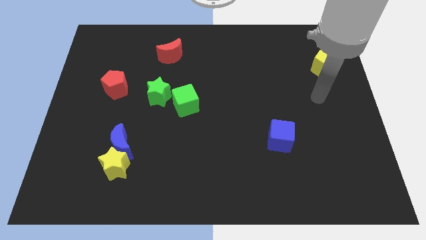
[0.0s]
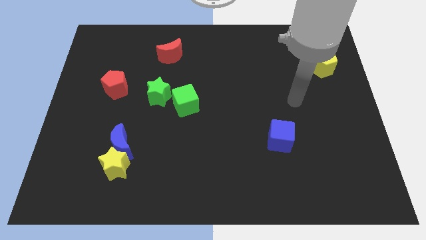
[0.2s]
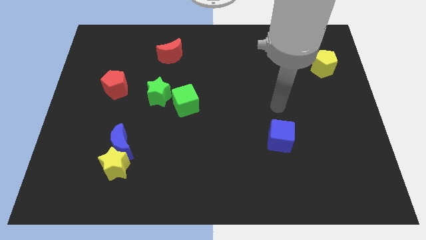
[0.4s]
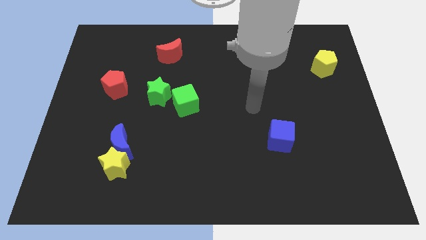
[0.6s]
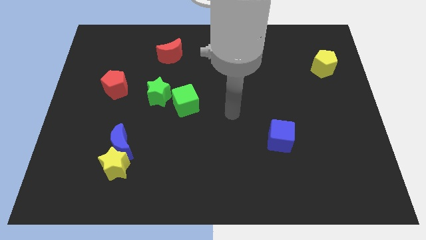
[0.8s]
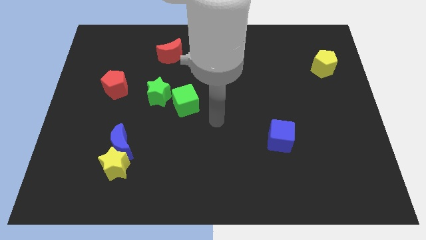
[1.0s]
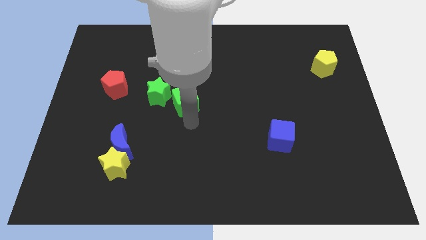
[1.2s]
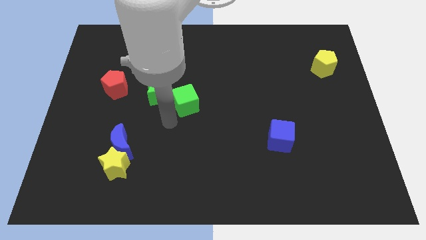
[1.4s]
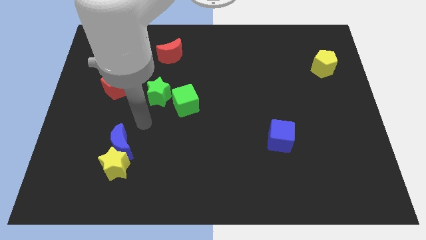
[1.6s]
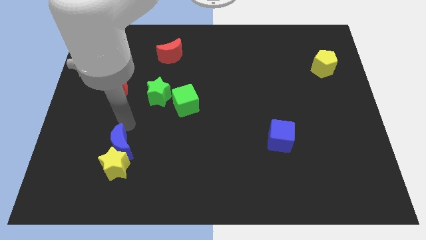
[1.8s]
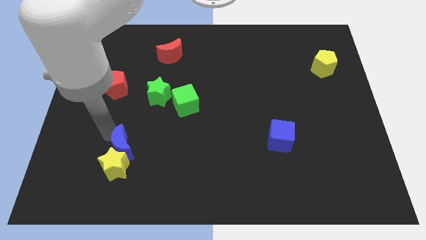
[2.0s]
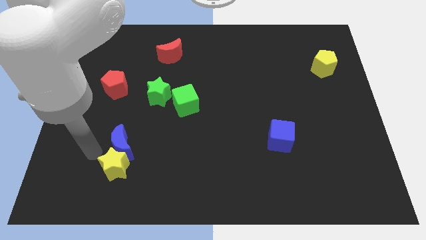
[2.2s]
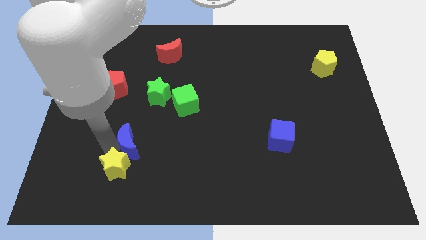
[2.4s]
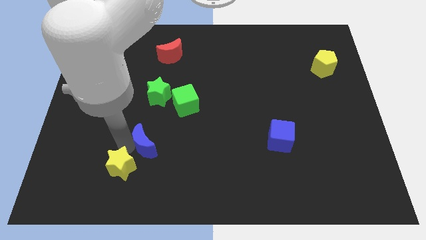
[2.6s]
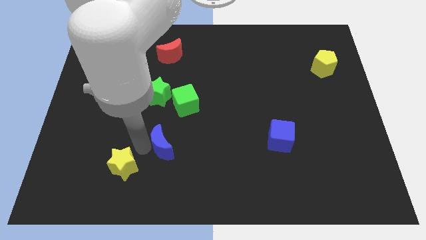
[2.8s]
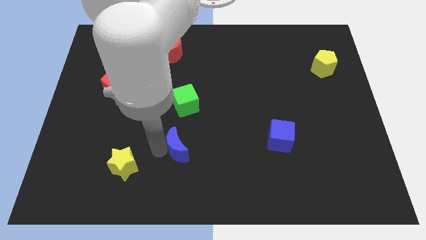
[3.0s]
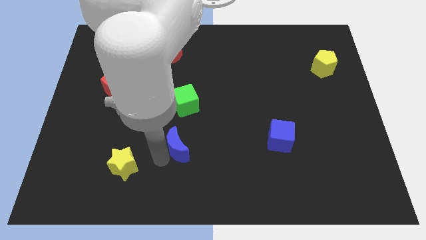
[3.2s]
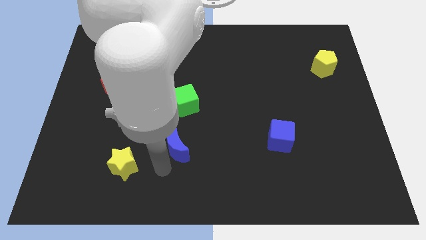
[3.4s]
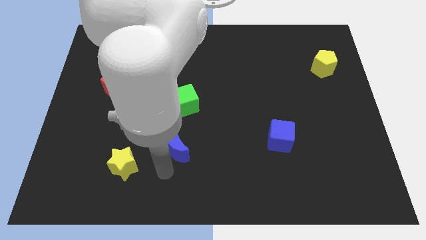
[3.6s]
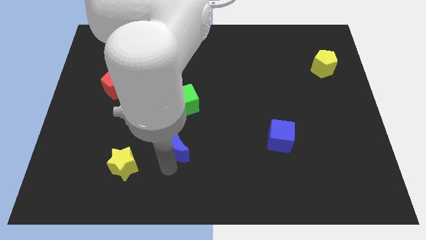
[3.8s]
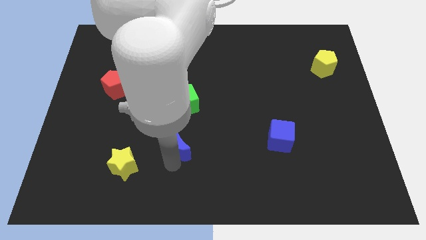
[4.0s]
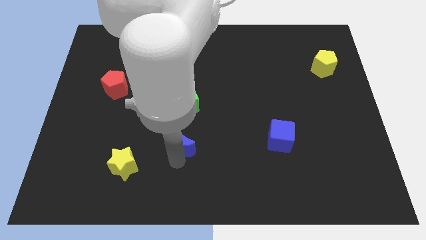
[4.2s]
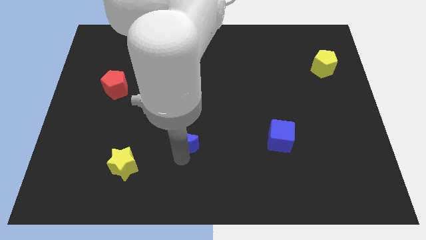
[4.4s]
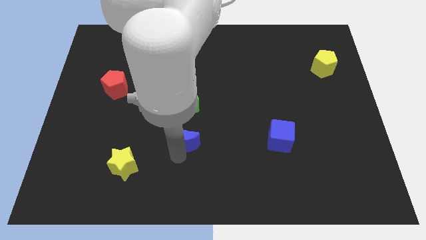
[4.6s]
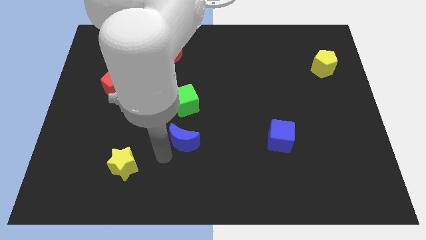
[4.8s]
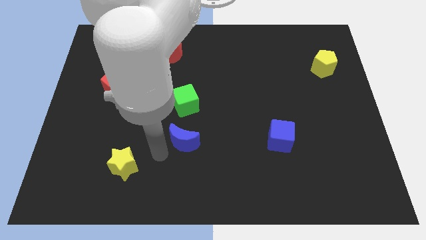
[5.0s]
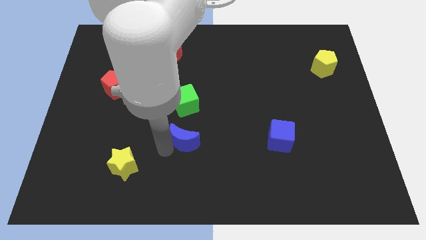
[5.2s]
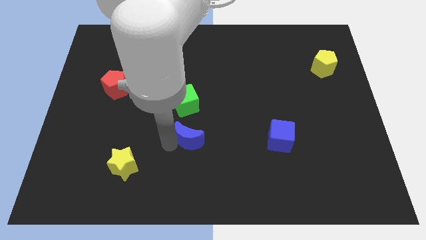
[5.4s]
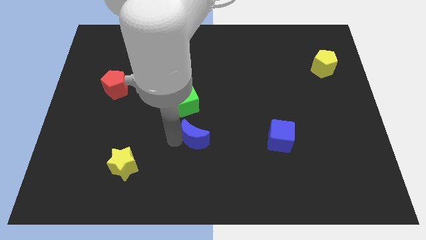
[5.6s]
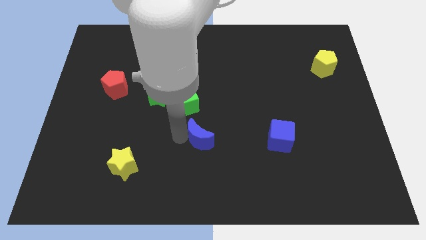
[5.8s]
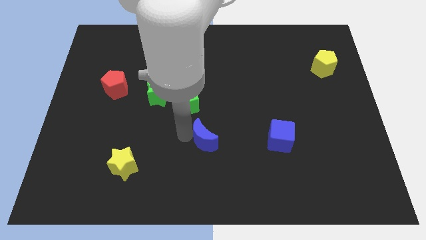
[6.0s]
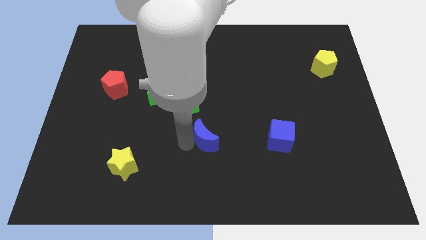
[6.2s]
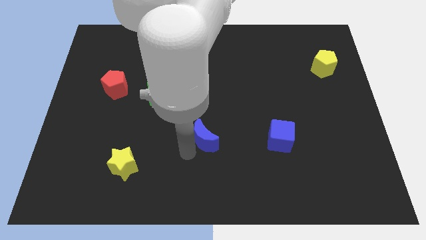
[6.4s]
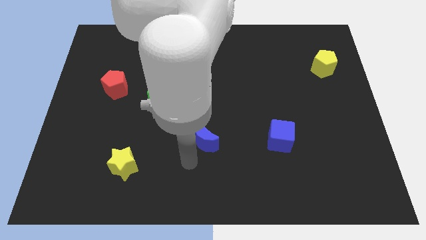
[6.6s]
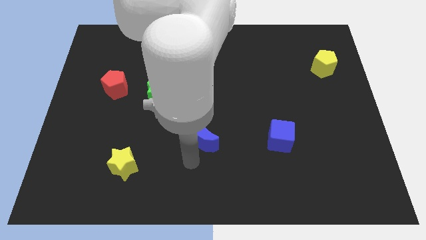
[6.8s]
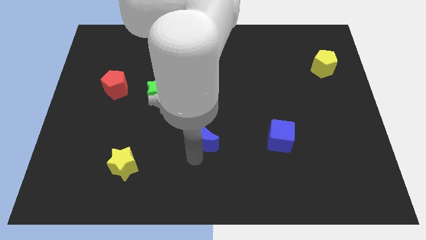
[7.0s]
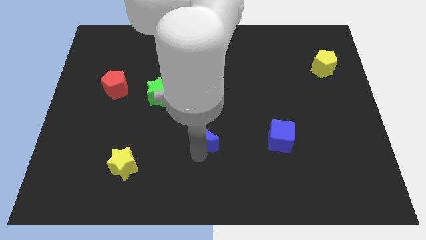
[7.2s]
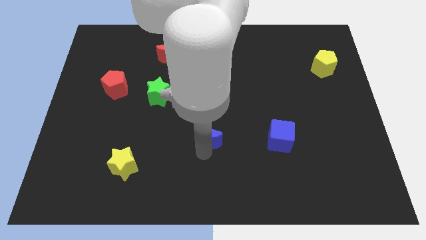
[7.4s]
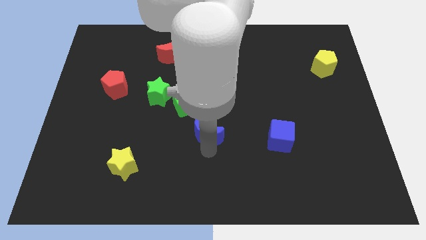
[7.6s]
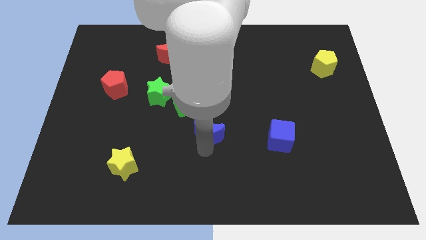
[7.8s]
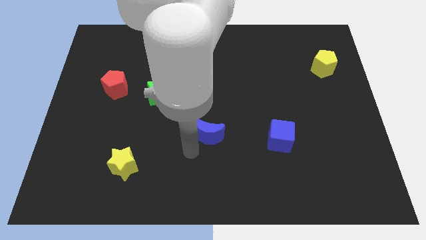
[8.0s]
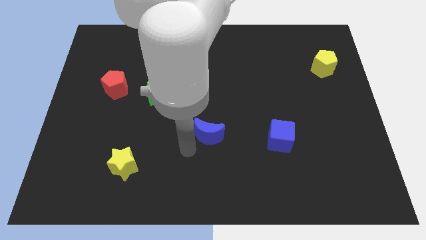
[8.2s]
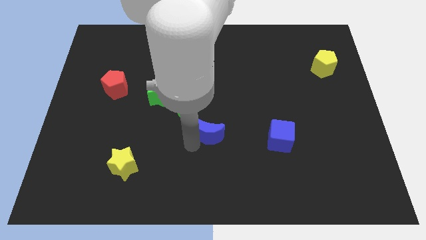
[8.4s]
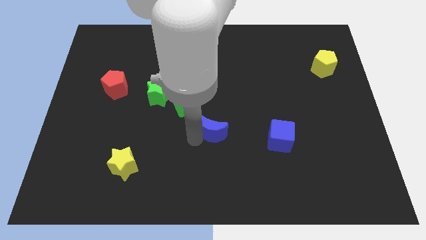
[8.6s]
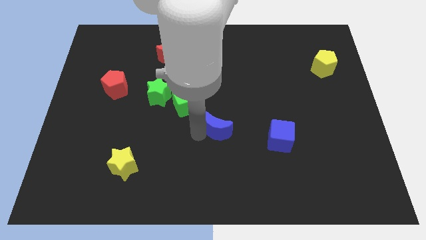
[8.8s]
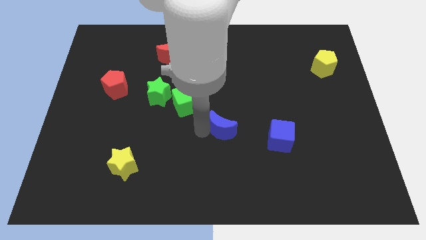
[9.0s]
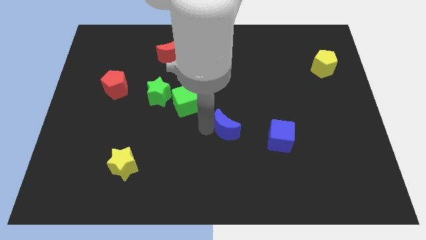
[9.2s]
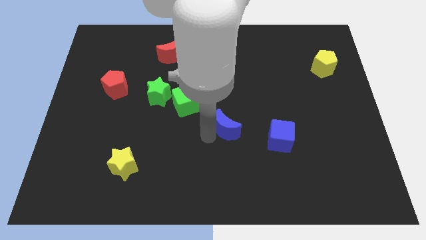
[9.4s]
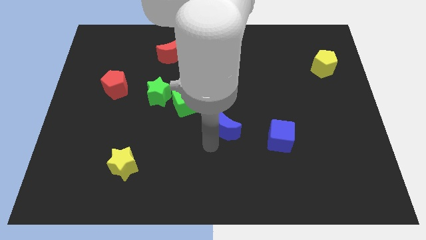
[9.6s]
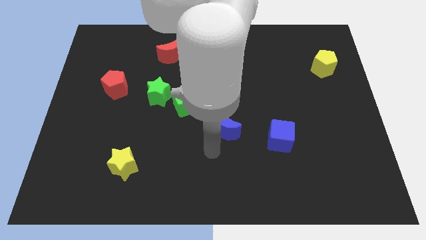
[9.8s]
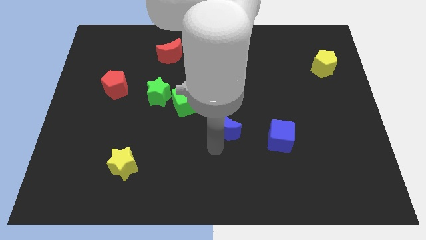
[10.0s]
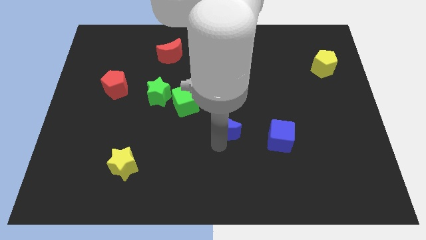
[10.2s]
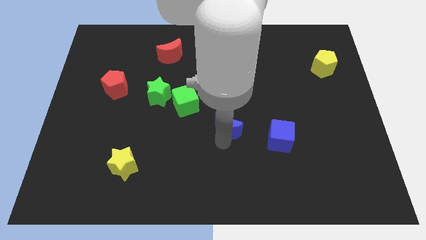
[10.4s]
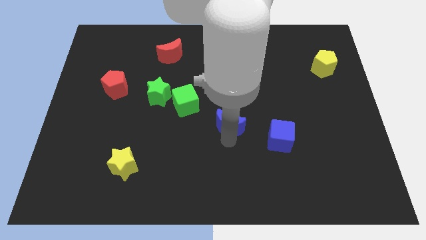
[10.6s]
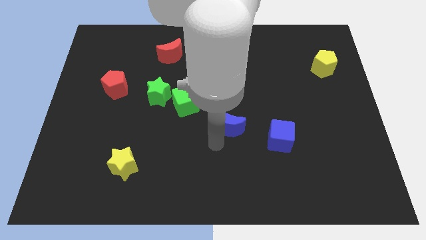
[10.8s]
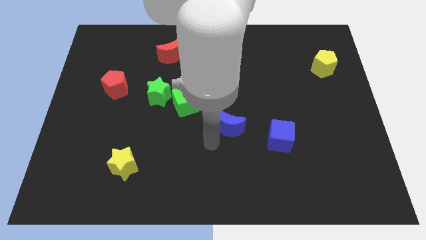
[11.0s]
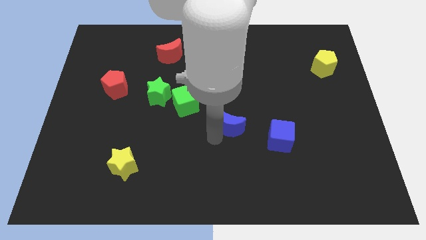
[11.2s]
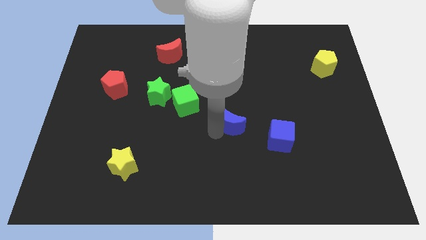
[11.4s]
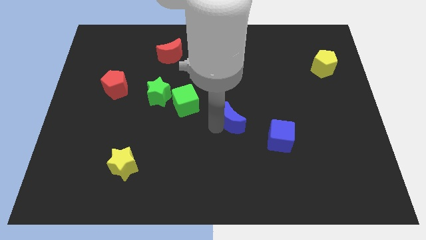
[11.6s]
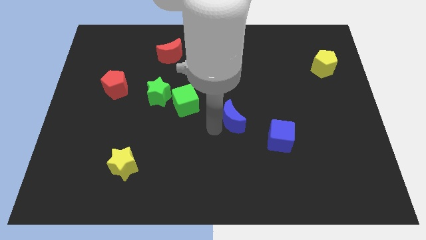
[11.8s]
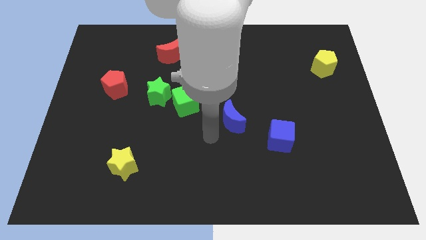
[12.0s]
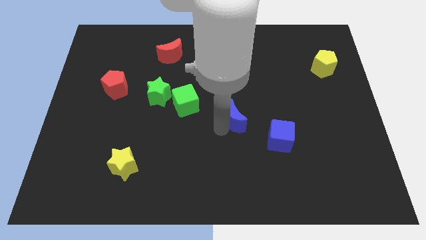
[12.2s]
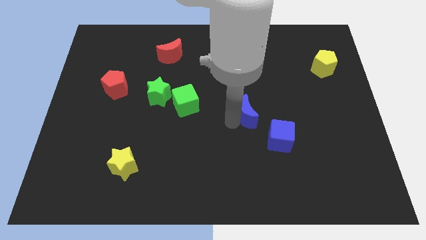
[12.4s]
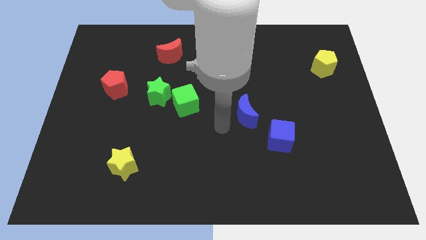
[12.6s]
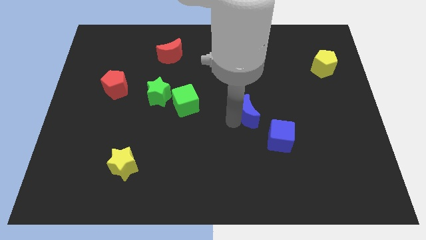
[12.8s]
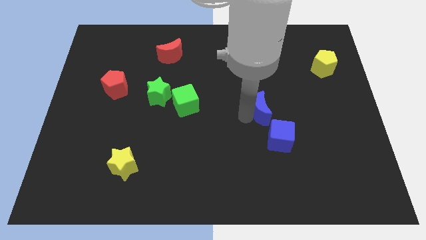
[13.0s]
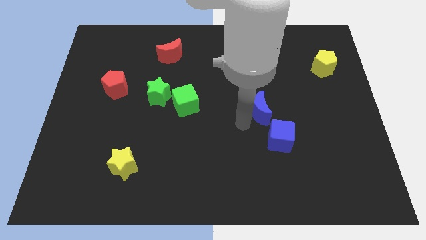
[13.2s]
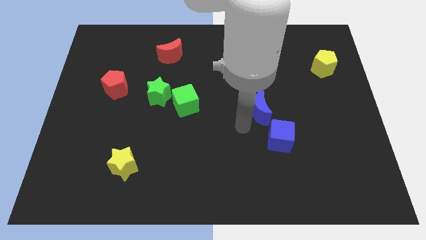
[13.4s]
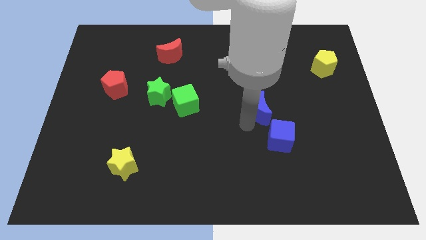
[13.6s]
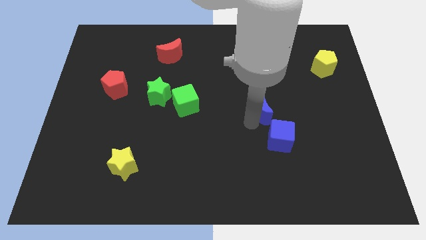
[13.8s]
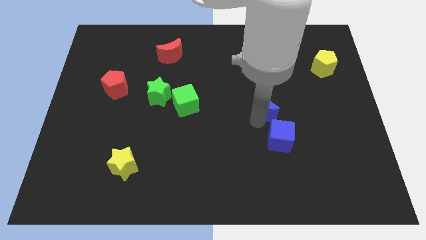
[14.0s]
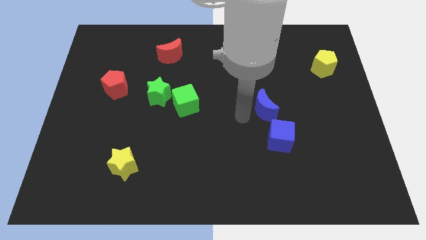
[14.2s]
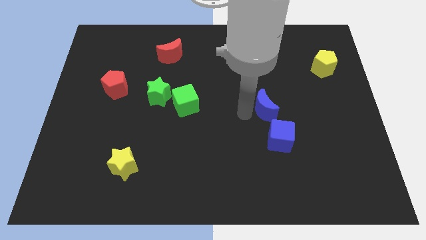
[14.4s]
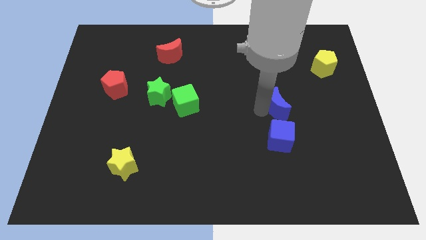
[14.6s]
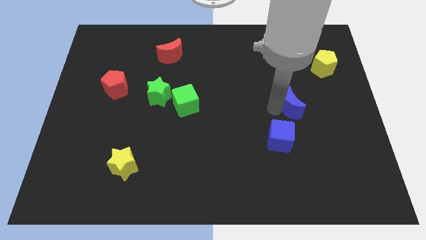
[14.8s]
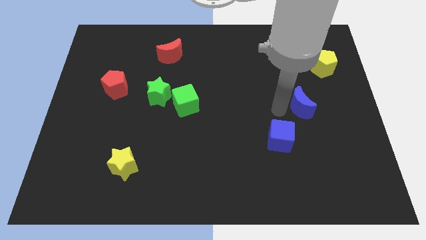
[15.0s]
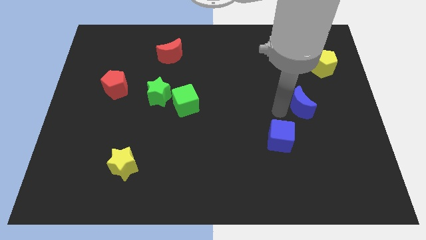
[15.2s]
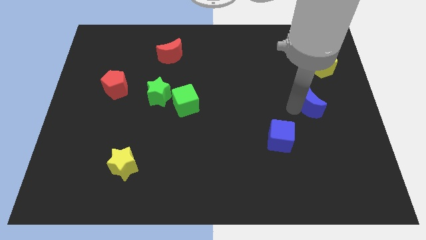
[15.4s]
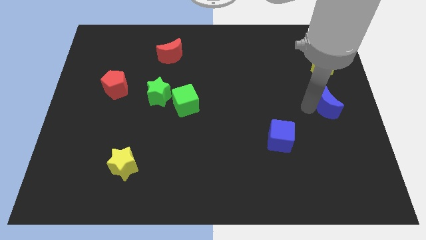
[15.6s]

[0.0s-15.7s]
move the blue moon to the right side
